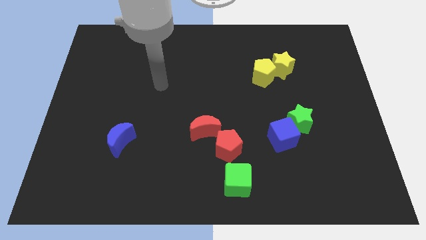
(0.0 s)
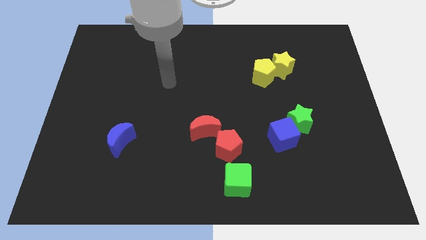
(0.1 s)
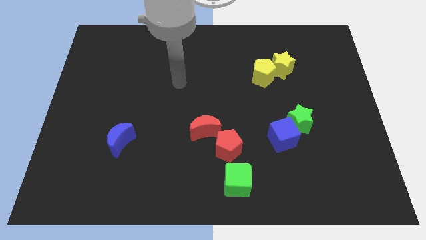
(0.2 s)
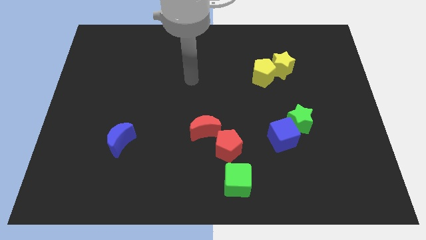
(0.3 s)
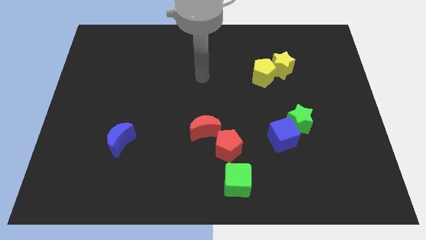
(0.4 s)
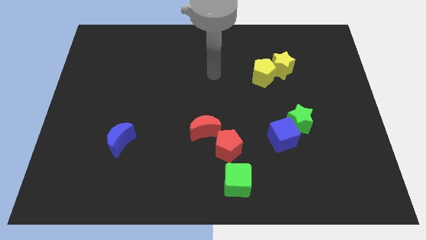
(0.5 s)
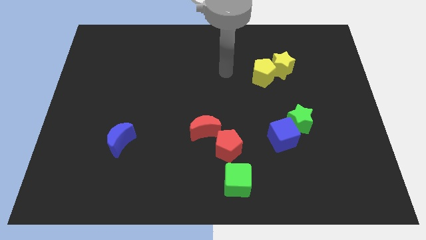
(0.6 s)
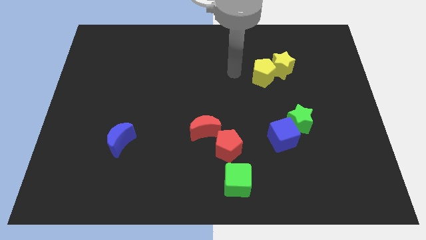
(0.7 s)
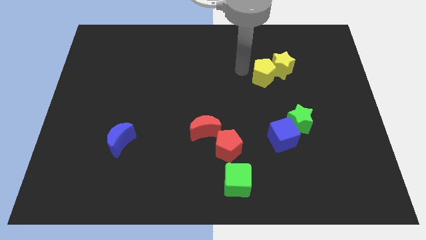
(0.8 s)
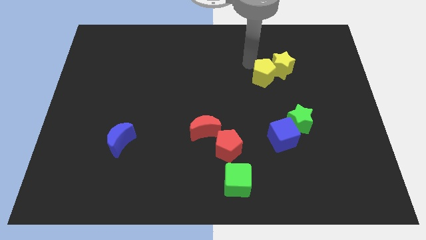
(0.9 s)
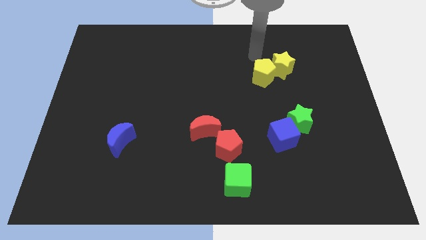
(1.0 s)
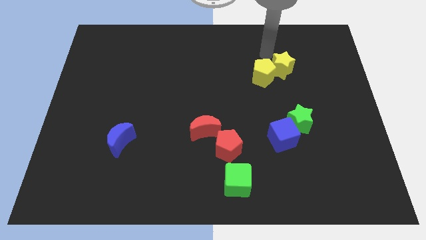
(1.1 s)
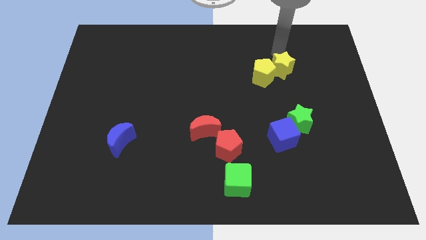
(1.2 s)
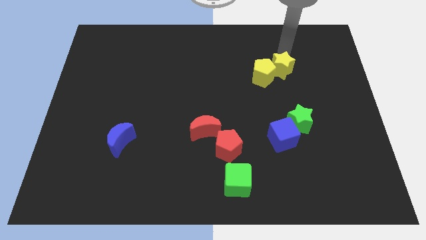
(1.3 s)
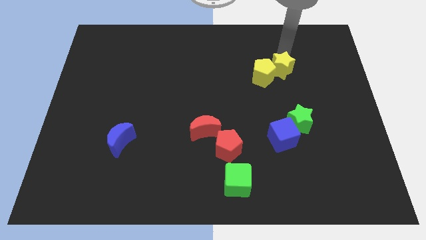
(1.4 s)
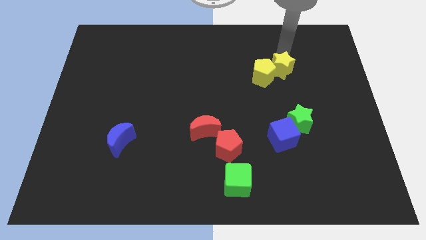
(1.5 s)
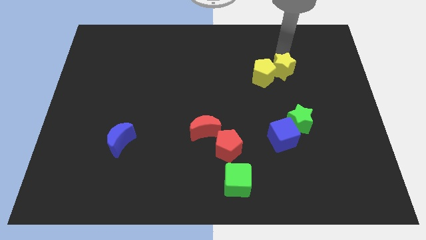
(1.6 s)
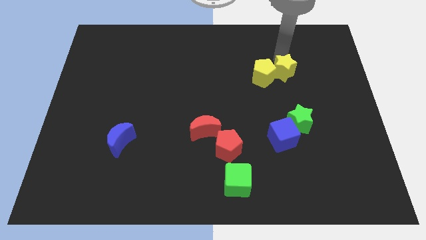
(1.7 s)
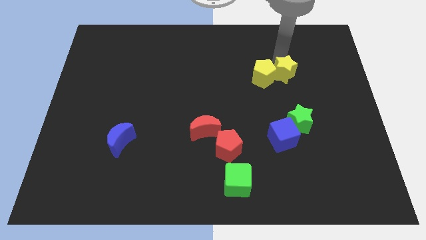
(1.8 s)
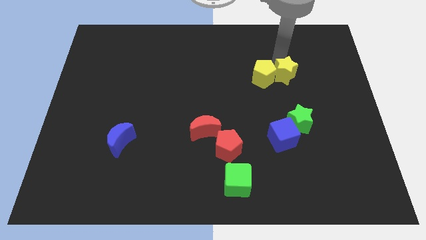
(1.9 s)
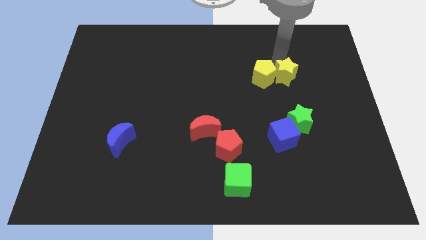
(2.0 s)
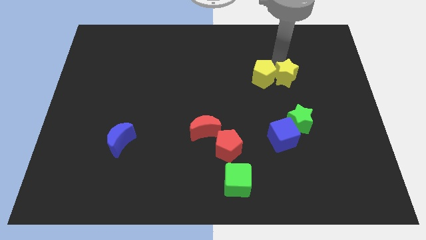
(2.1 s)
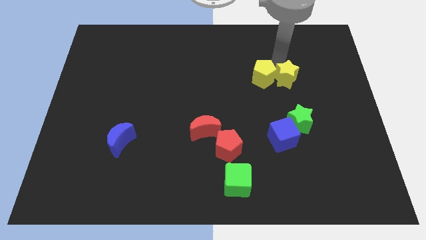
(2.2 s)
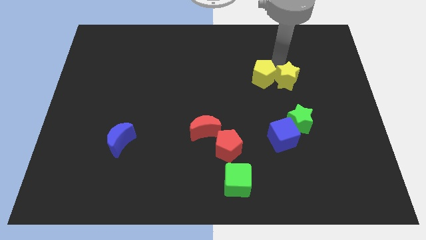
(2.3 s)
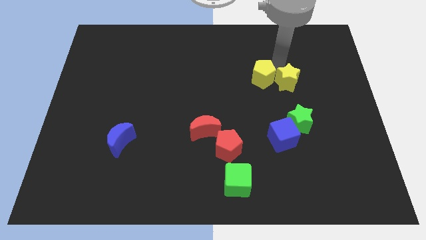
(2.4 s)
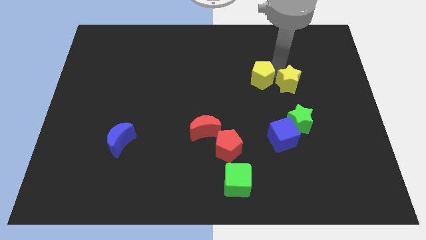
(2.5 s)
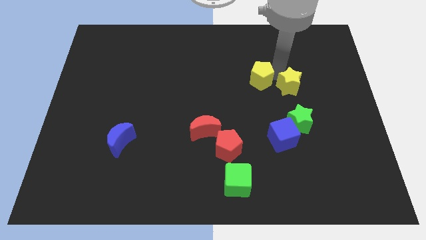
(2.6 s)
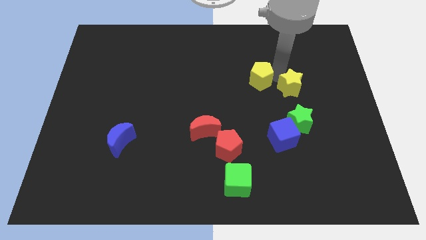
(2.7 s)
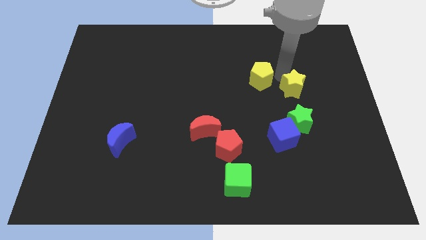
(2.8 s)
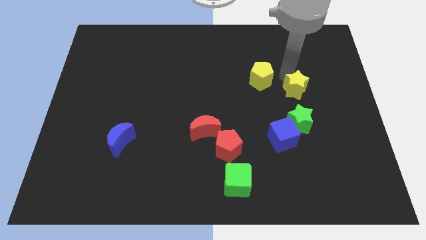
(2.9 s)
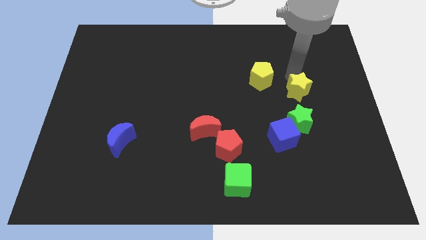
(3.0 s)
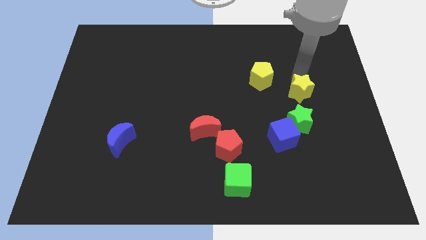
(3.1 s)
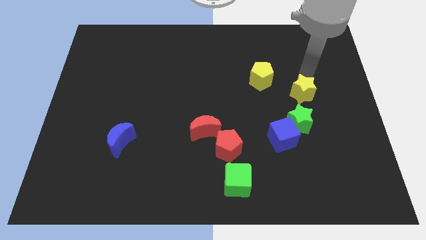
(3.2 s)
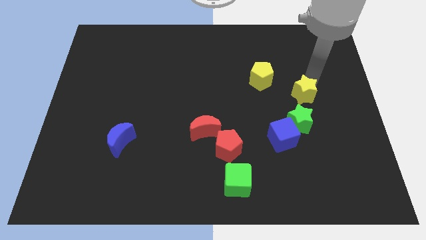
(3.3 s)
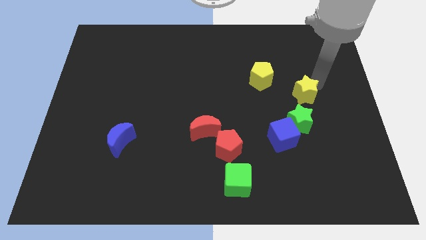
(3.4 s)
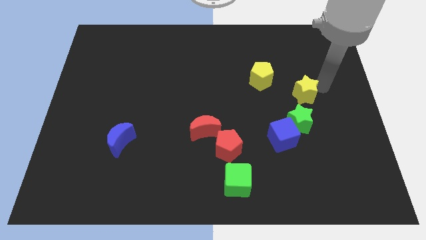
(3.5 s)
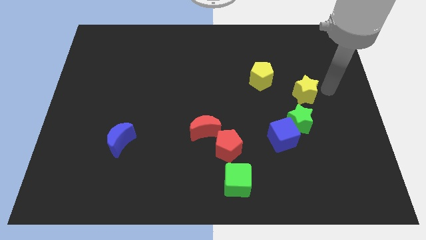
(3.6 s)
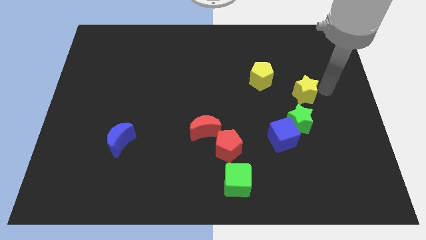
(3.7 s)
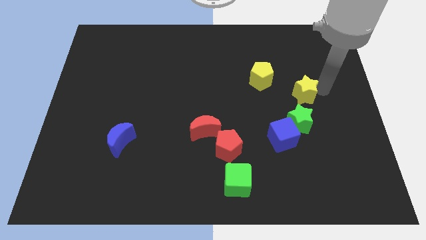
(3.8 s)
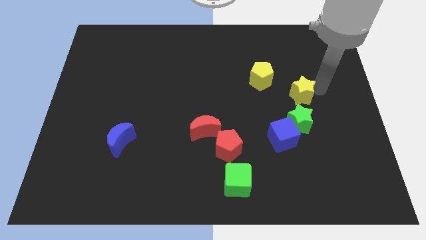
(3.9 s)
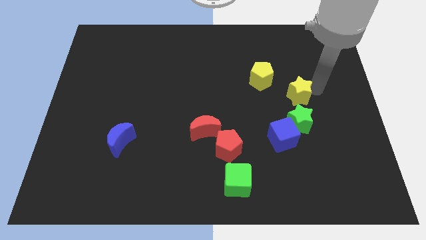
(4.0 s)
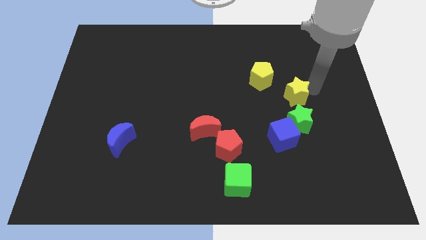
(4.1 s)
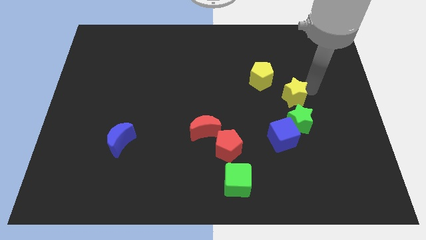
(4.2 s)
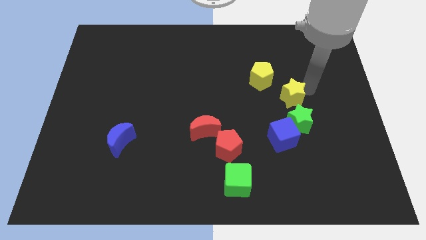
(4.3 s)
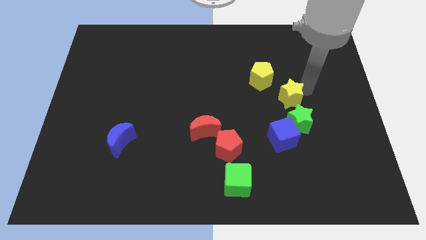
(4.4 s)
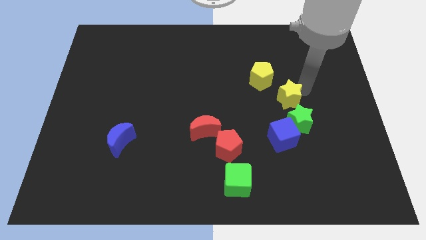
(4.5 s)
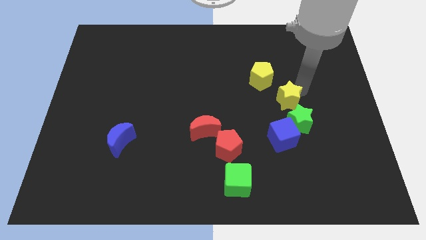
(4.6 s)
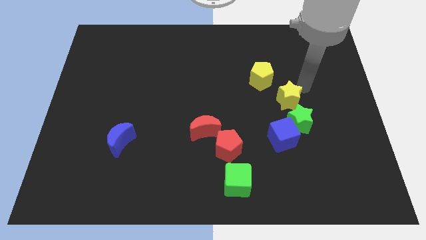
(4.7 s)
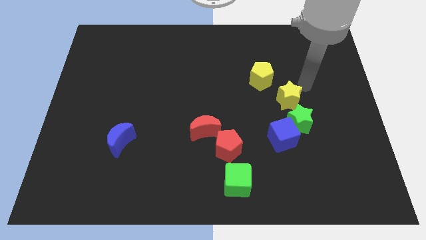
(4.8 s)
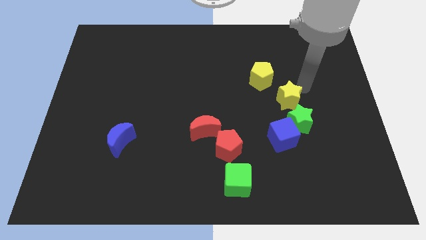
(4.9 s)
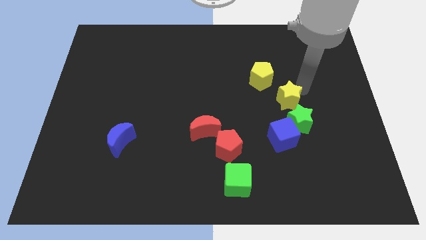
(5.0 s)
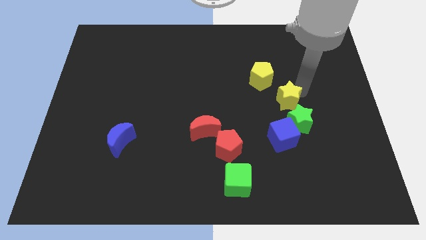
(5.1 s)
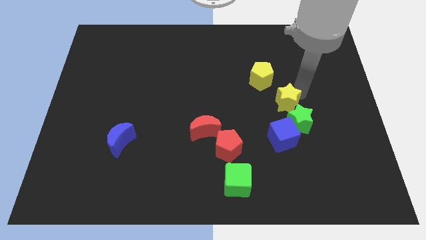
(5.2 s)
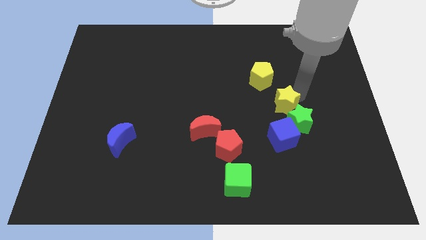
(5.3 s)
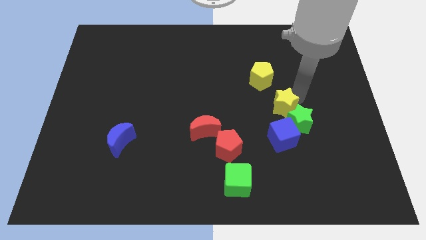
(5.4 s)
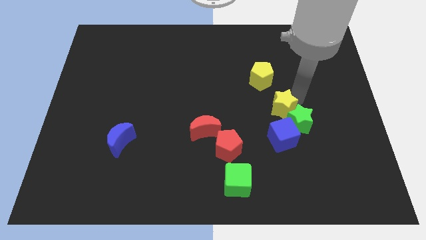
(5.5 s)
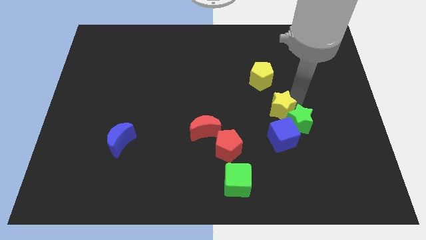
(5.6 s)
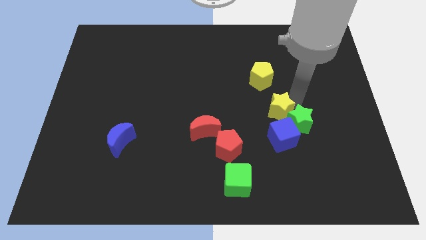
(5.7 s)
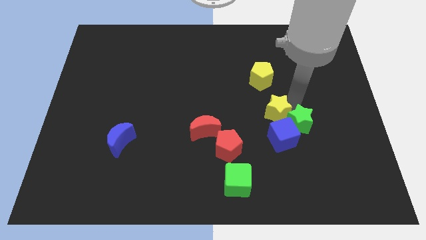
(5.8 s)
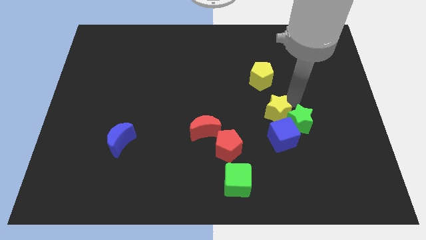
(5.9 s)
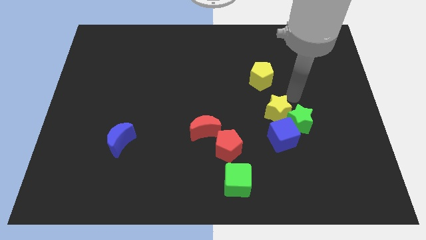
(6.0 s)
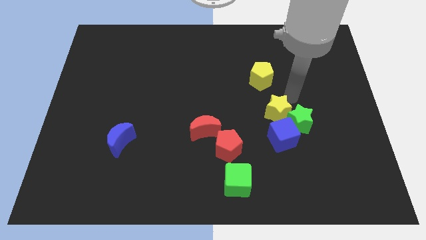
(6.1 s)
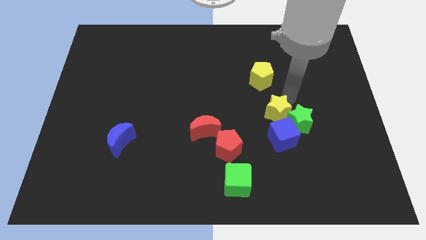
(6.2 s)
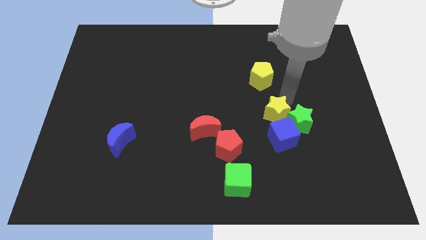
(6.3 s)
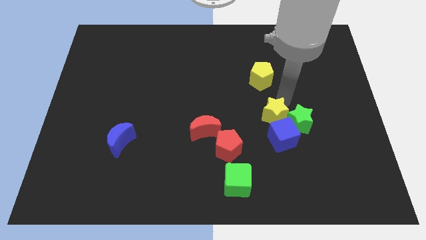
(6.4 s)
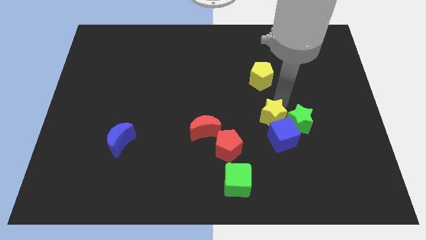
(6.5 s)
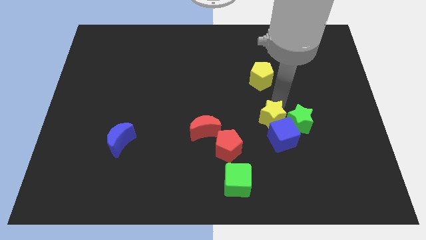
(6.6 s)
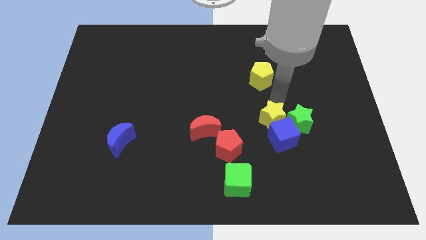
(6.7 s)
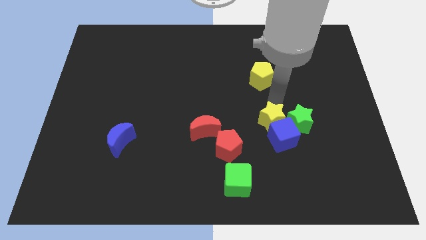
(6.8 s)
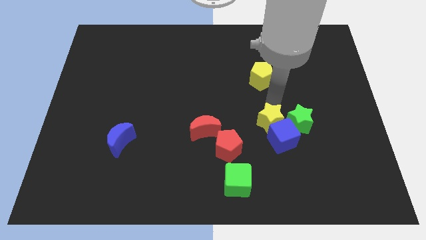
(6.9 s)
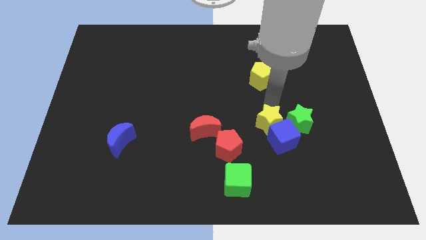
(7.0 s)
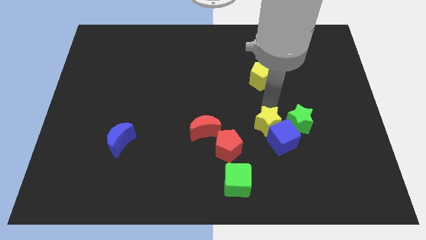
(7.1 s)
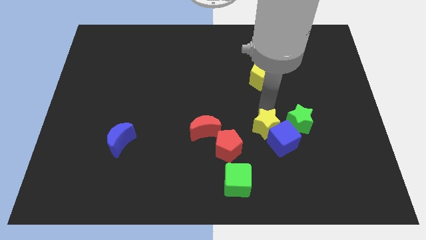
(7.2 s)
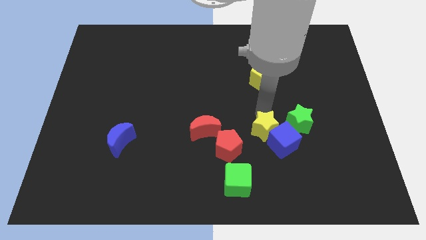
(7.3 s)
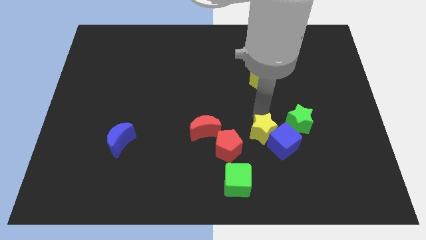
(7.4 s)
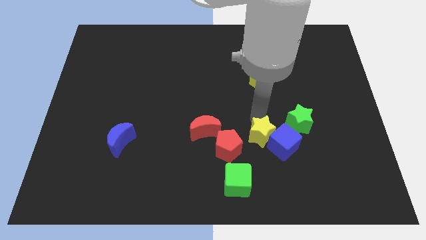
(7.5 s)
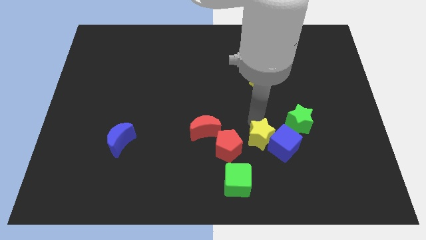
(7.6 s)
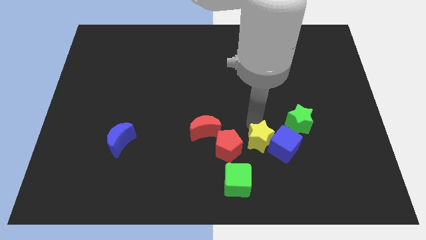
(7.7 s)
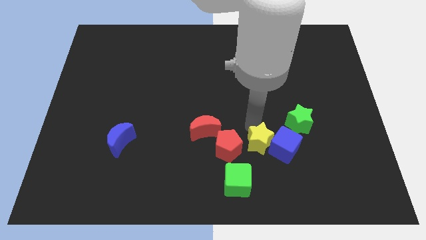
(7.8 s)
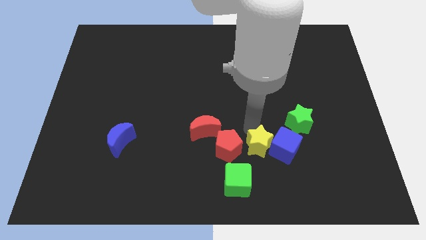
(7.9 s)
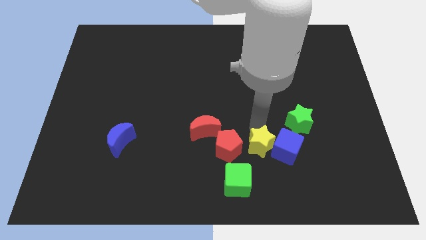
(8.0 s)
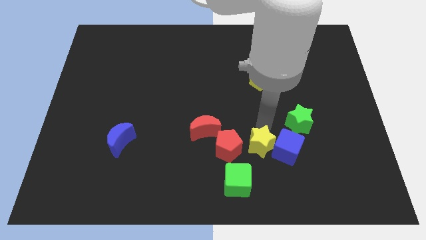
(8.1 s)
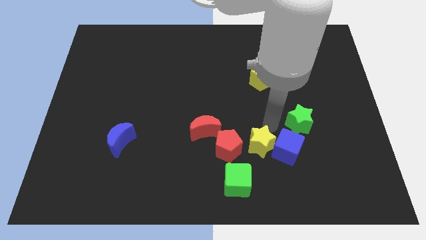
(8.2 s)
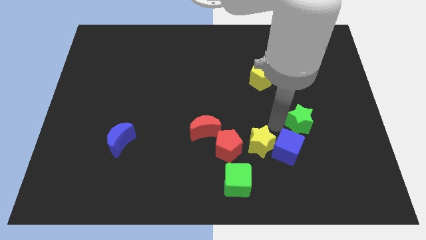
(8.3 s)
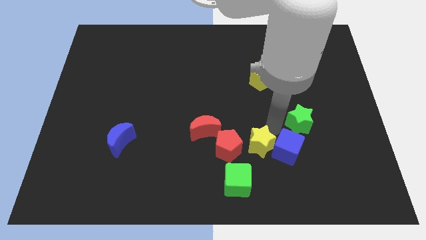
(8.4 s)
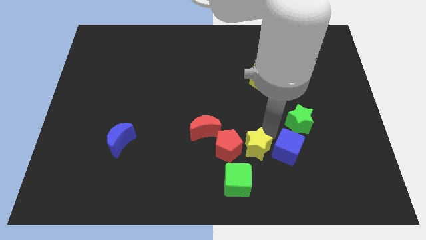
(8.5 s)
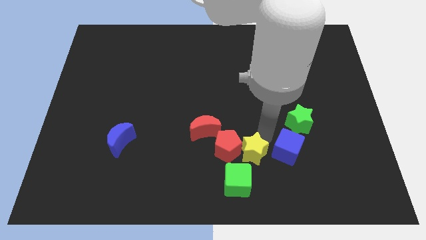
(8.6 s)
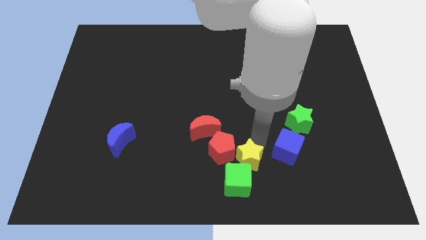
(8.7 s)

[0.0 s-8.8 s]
push the yellow star towards the green cube
